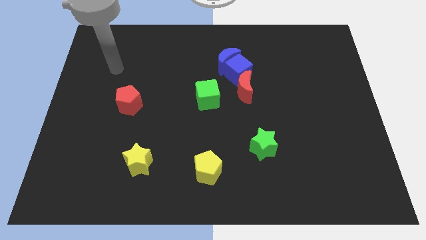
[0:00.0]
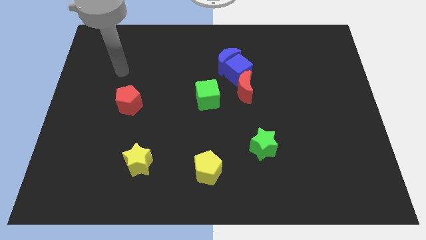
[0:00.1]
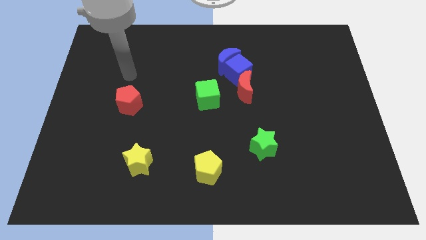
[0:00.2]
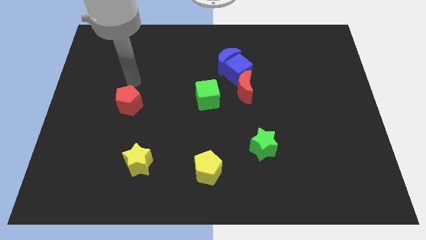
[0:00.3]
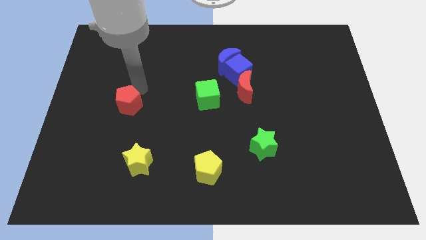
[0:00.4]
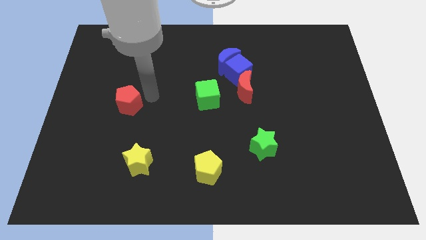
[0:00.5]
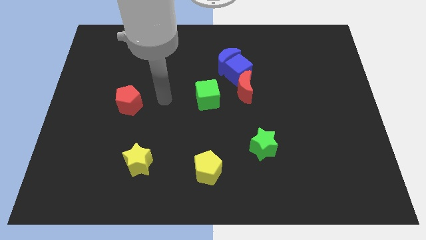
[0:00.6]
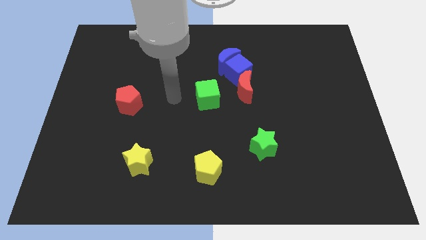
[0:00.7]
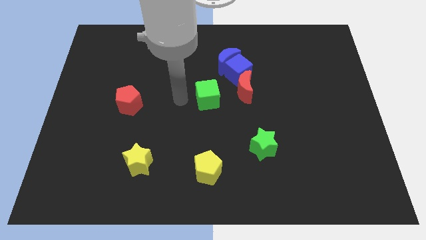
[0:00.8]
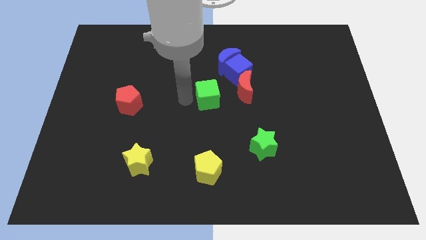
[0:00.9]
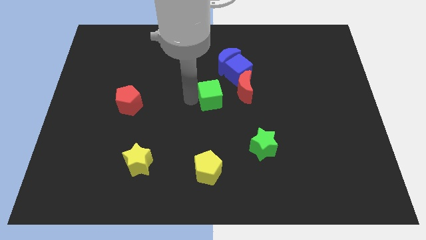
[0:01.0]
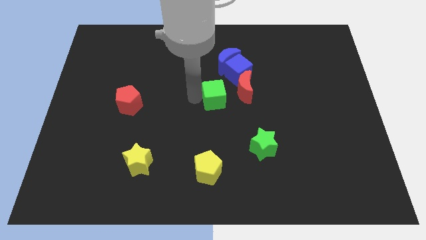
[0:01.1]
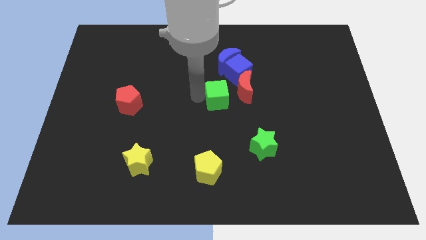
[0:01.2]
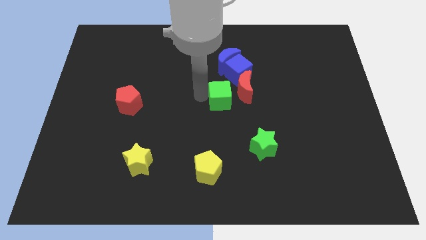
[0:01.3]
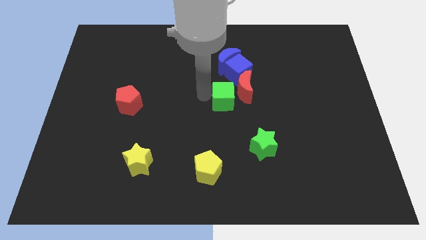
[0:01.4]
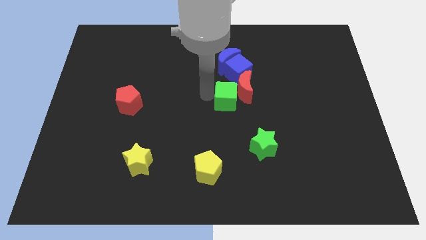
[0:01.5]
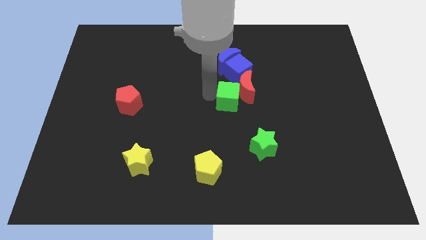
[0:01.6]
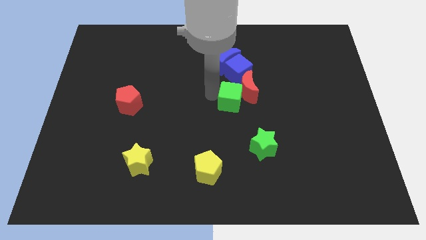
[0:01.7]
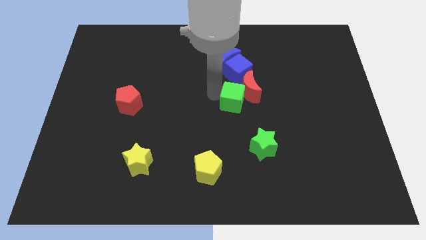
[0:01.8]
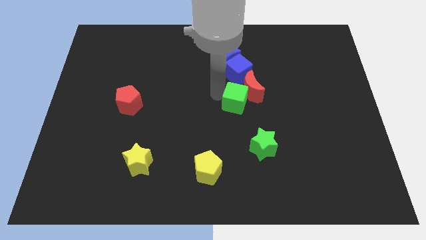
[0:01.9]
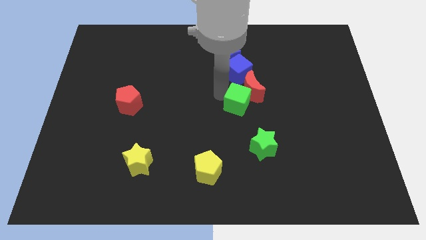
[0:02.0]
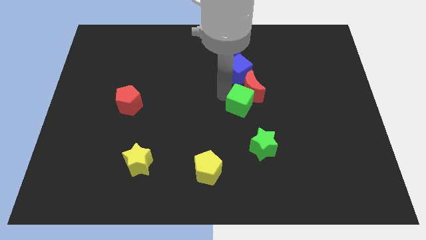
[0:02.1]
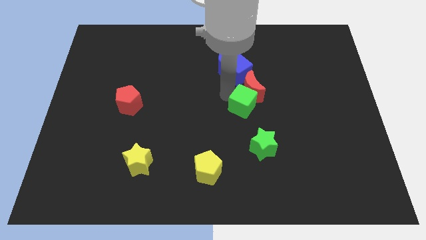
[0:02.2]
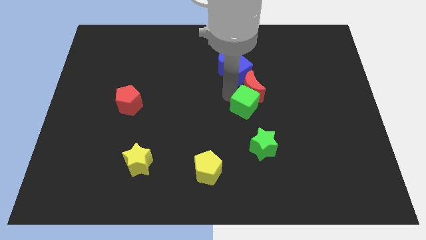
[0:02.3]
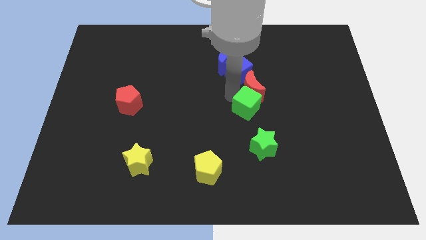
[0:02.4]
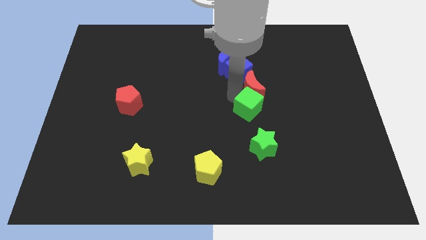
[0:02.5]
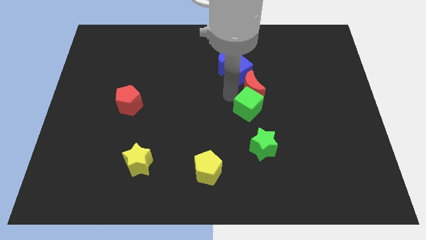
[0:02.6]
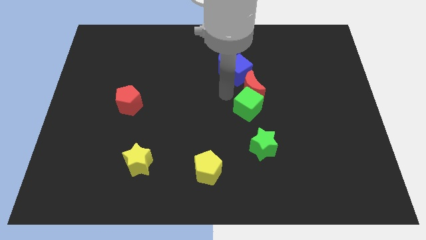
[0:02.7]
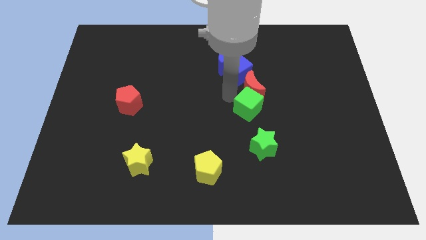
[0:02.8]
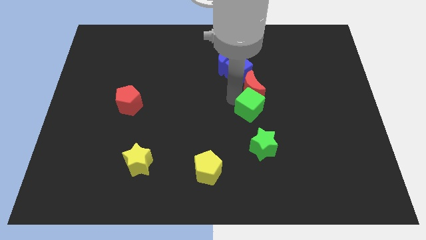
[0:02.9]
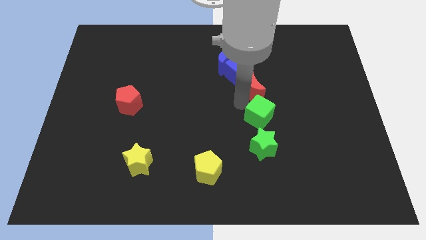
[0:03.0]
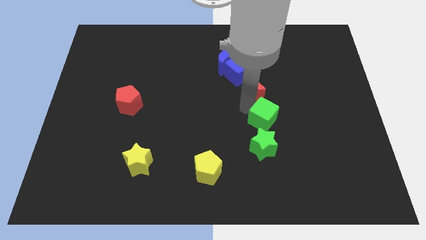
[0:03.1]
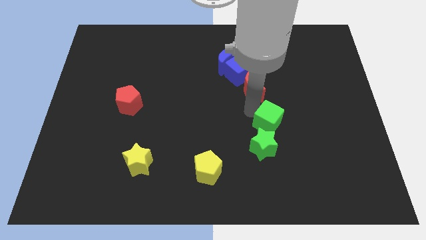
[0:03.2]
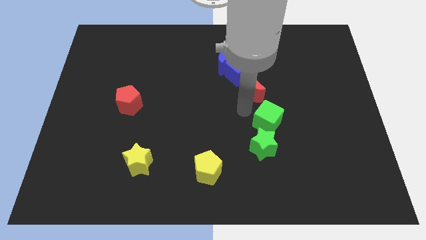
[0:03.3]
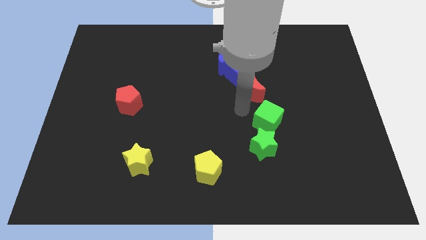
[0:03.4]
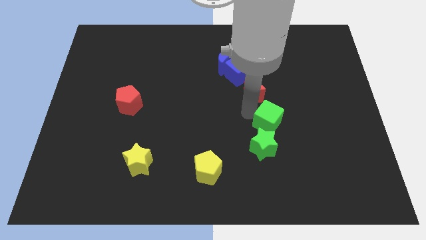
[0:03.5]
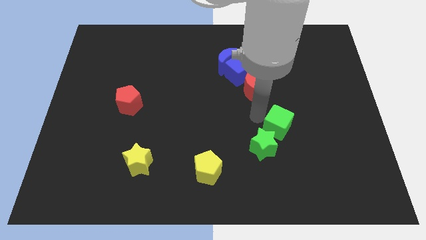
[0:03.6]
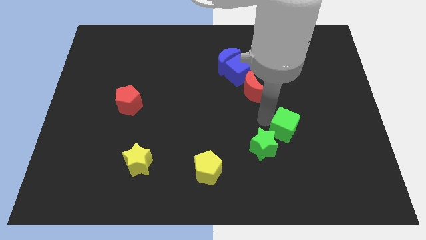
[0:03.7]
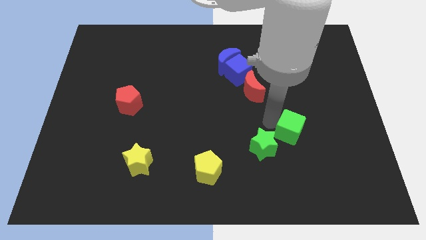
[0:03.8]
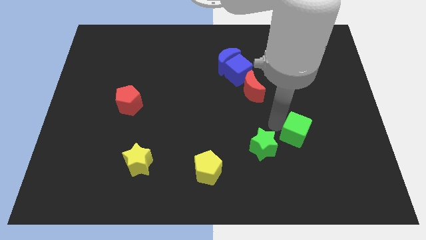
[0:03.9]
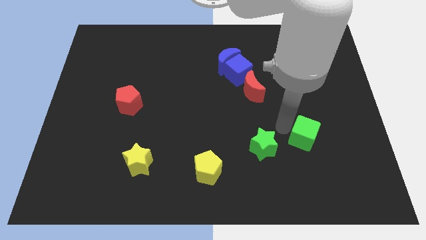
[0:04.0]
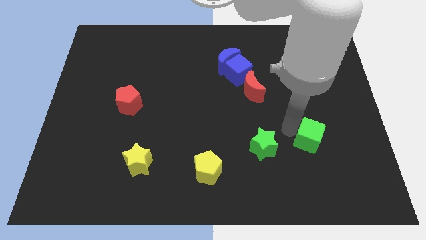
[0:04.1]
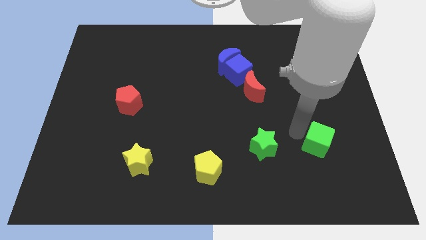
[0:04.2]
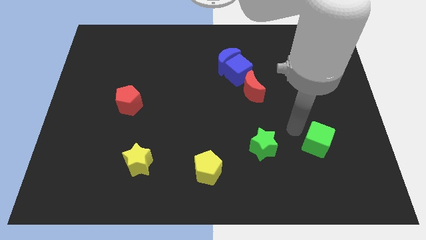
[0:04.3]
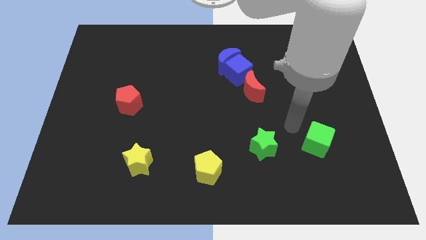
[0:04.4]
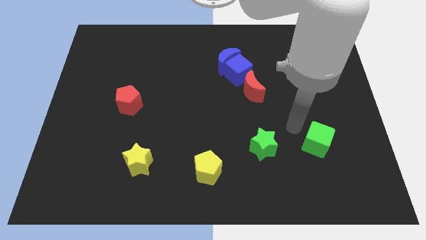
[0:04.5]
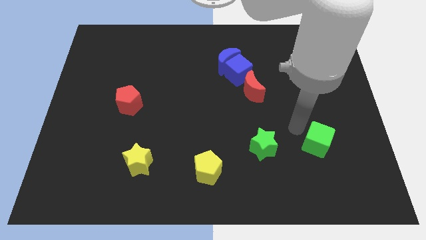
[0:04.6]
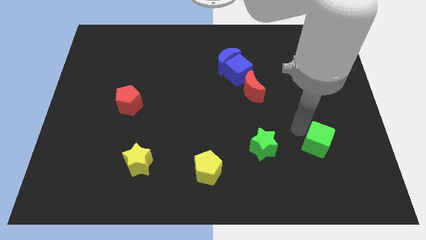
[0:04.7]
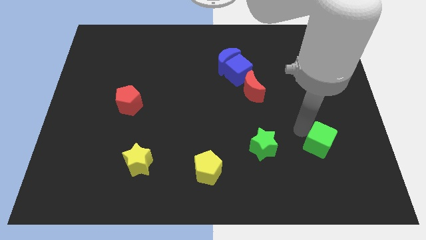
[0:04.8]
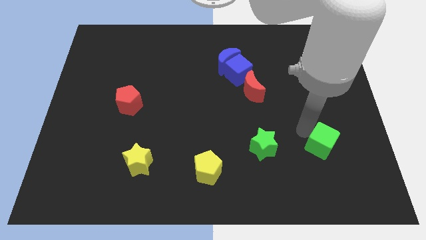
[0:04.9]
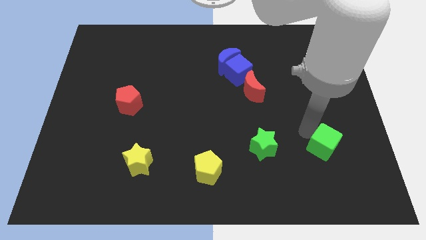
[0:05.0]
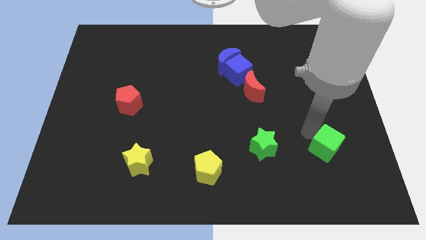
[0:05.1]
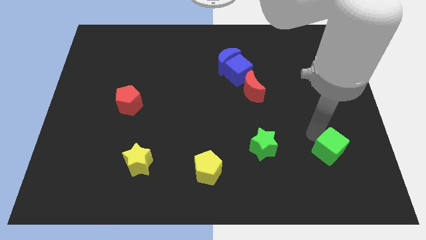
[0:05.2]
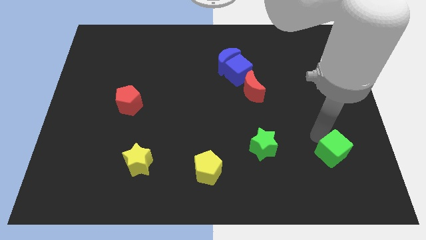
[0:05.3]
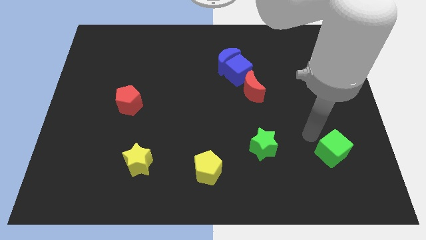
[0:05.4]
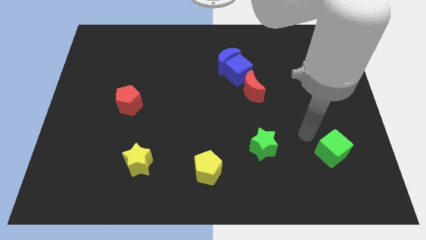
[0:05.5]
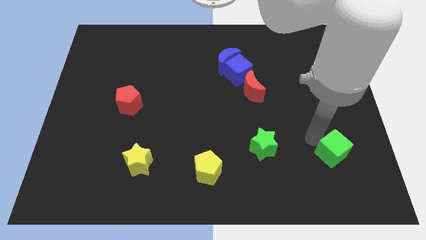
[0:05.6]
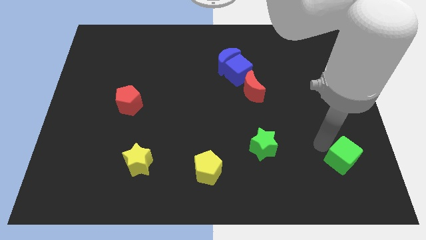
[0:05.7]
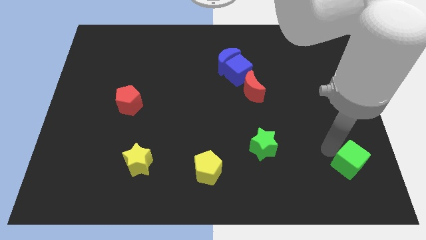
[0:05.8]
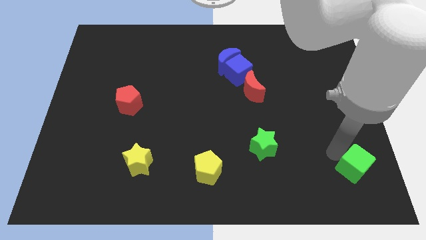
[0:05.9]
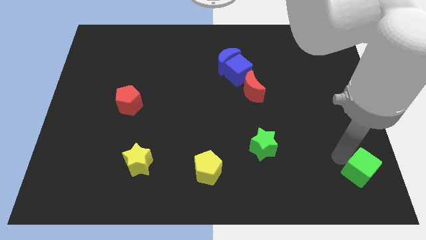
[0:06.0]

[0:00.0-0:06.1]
slide the green cube to the bottom right corner

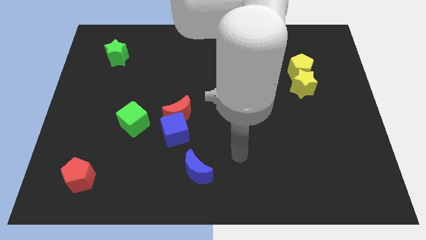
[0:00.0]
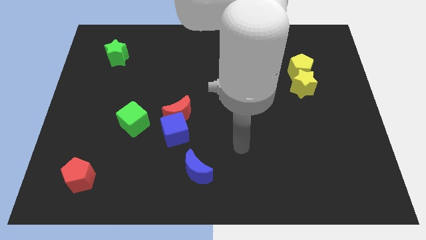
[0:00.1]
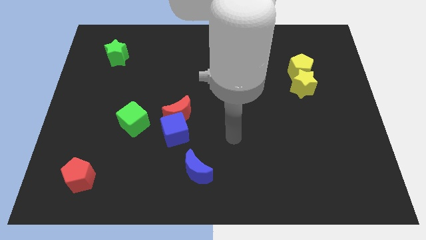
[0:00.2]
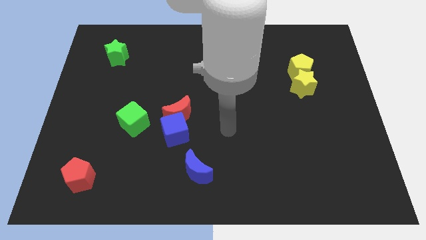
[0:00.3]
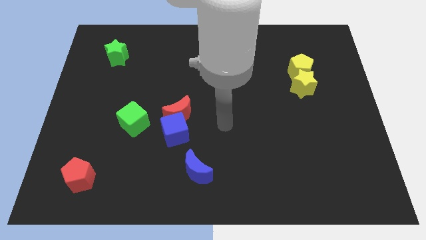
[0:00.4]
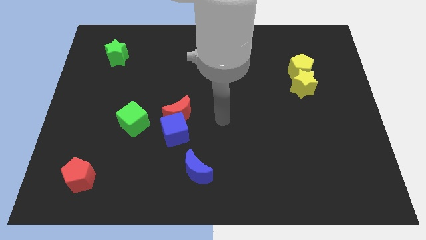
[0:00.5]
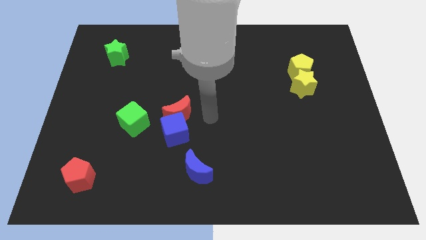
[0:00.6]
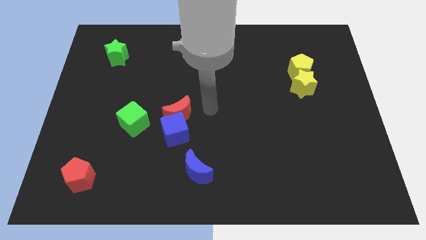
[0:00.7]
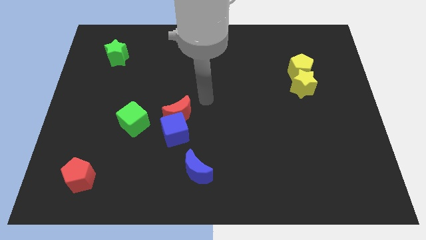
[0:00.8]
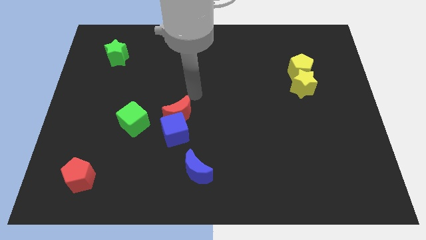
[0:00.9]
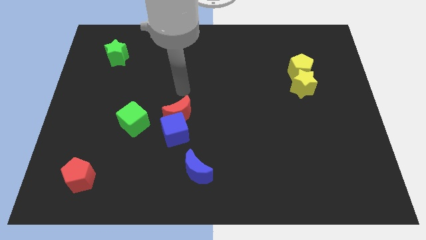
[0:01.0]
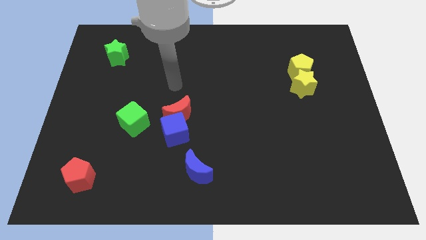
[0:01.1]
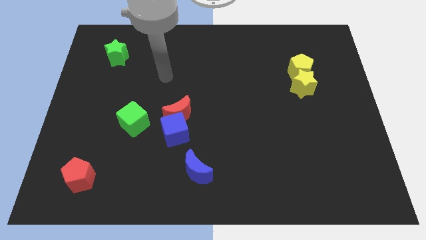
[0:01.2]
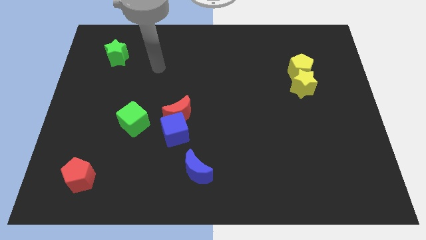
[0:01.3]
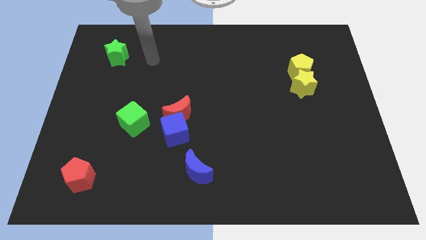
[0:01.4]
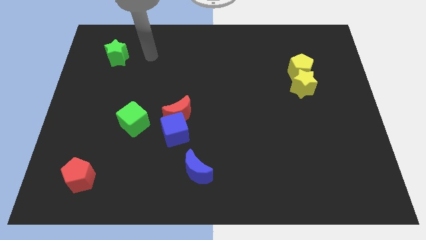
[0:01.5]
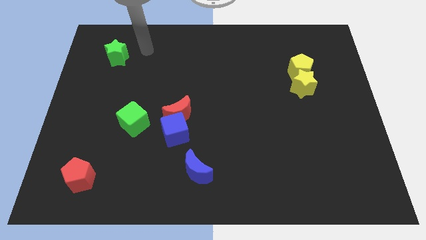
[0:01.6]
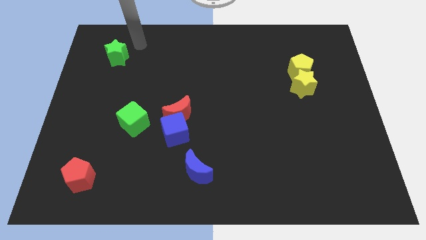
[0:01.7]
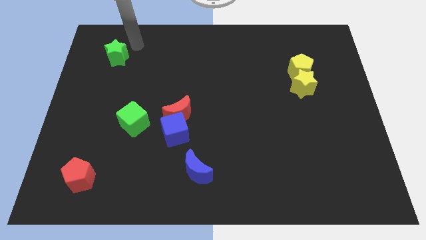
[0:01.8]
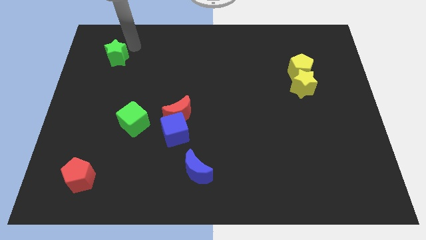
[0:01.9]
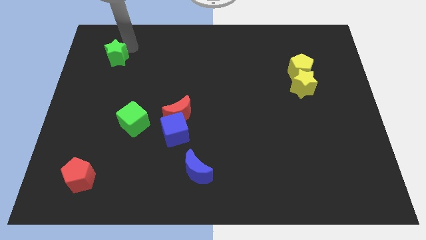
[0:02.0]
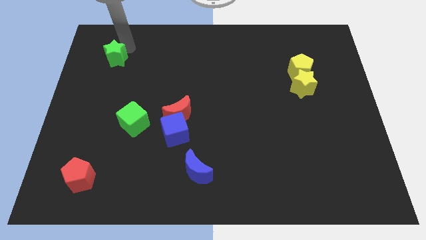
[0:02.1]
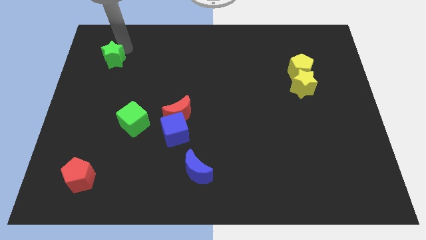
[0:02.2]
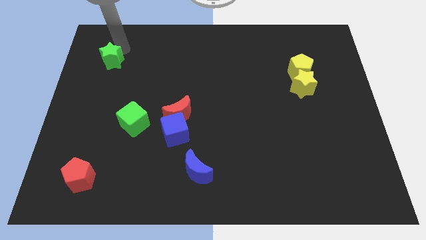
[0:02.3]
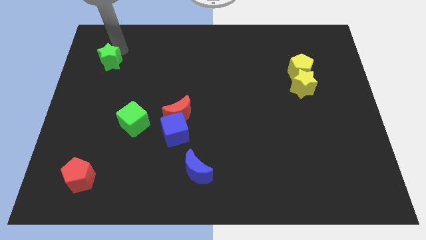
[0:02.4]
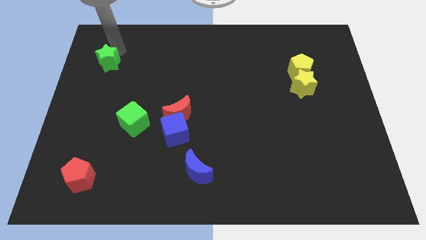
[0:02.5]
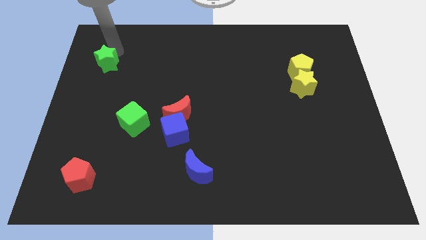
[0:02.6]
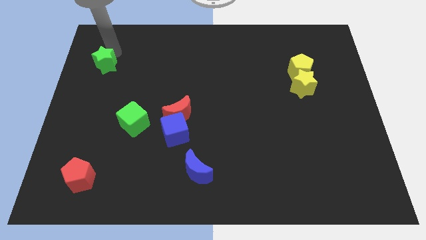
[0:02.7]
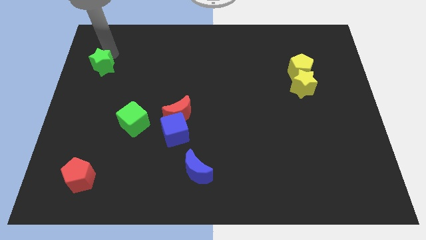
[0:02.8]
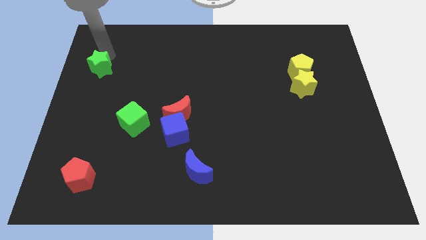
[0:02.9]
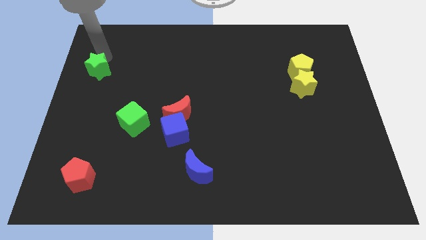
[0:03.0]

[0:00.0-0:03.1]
move the green star to the center left
